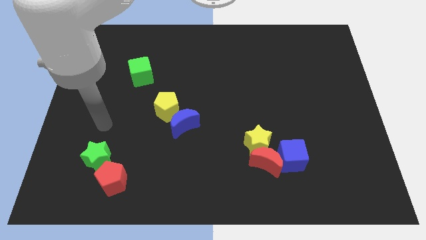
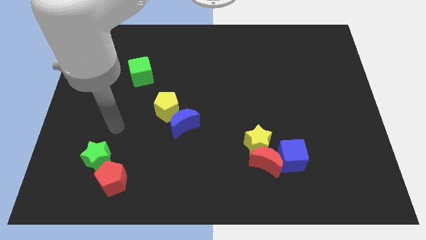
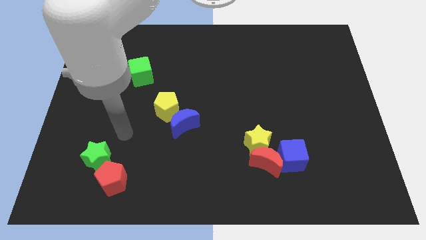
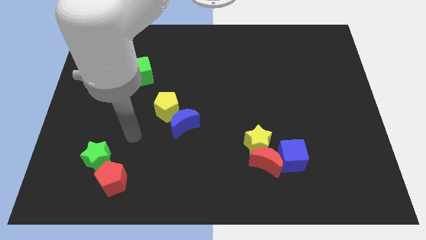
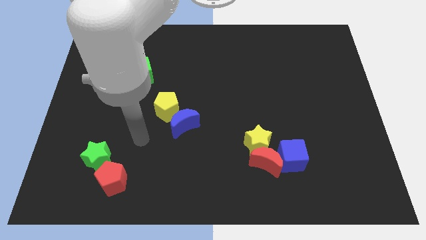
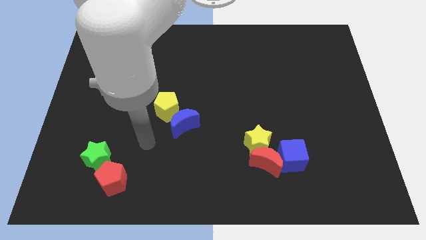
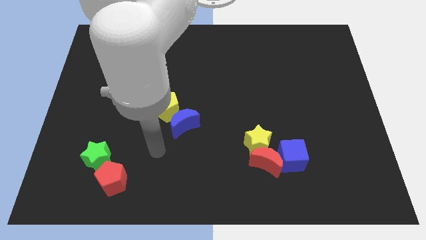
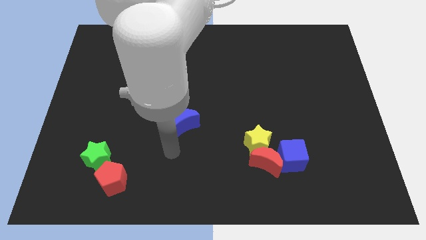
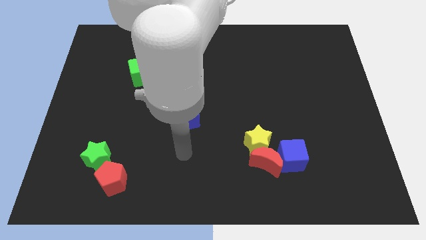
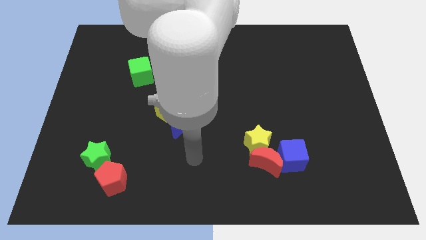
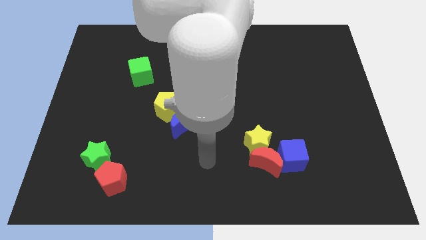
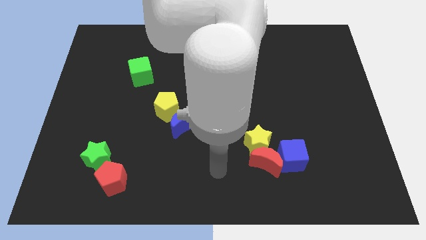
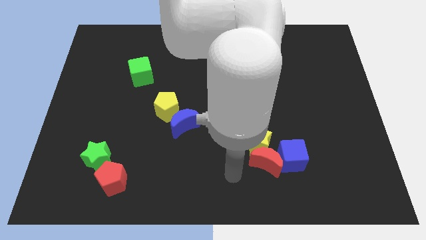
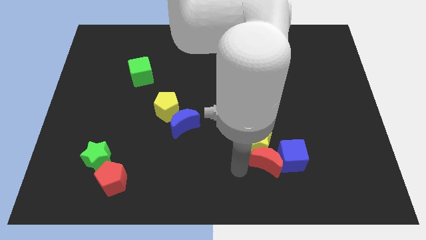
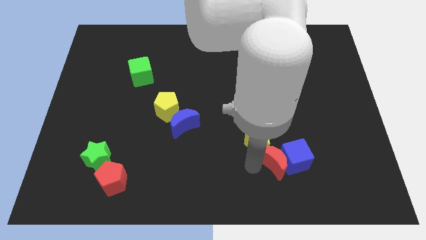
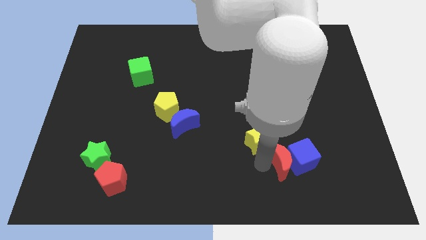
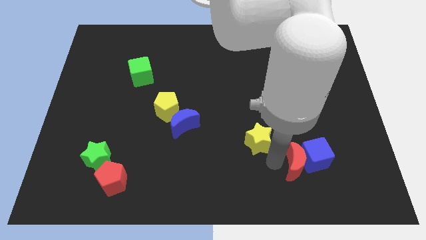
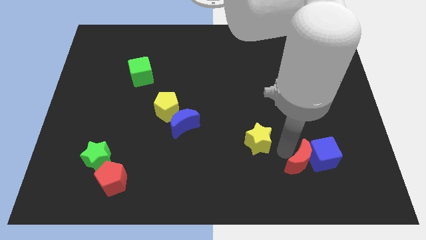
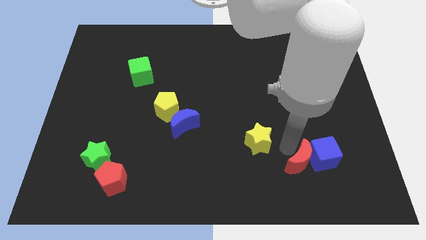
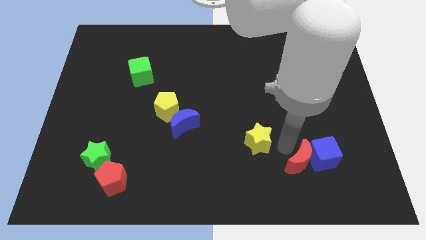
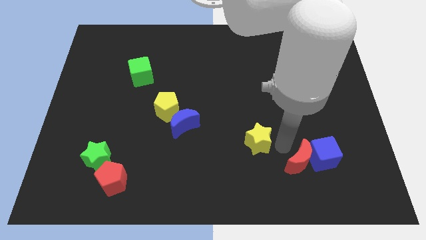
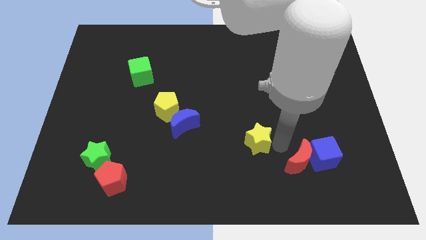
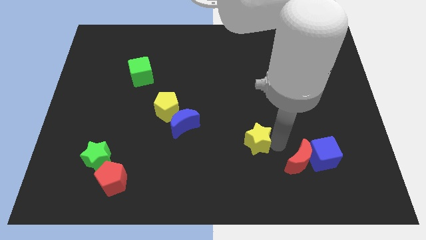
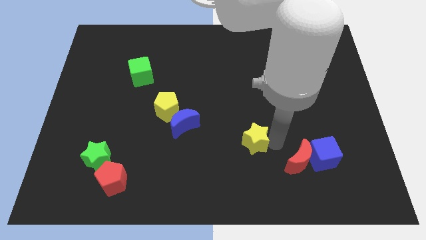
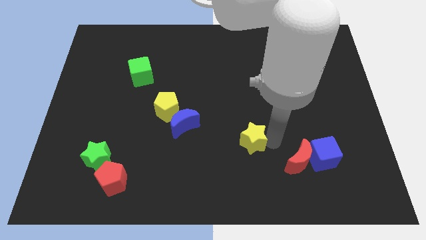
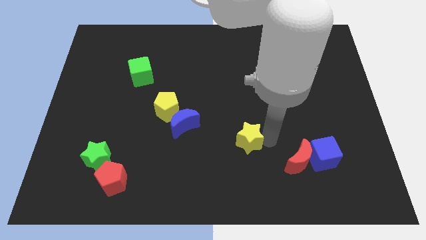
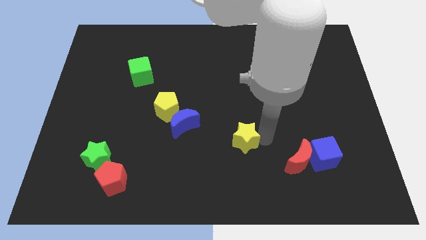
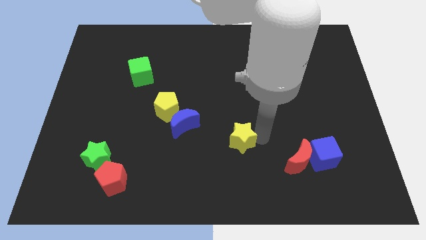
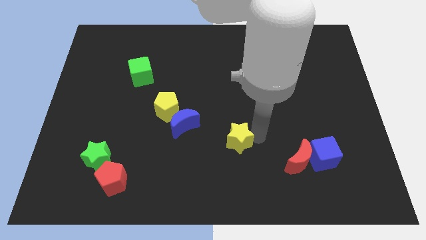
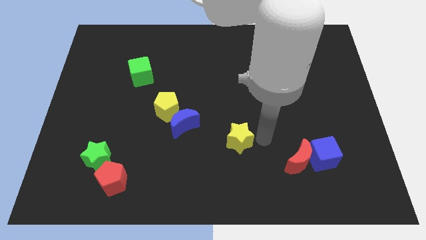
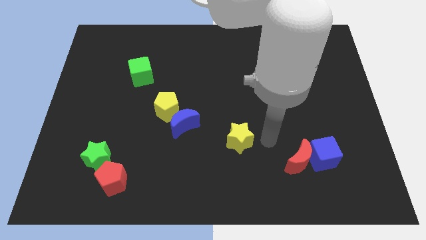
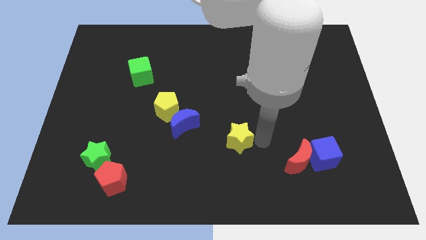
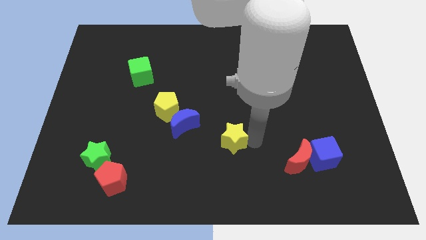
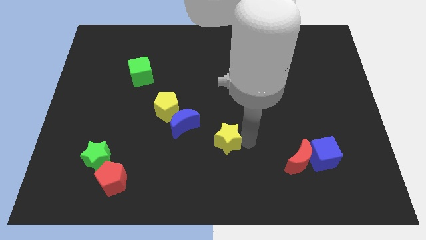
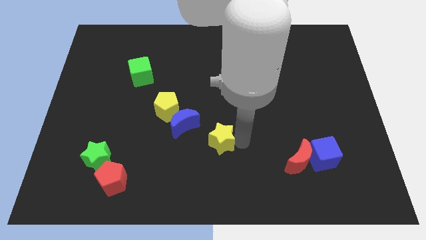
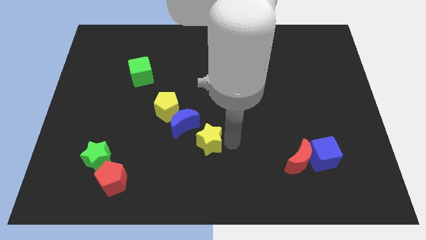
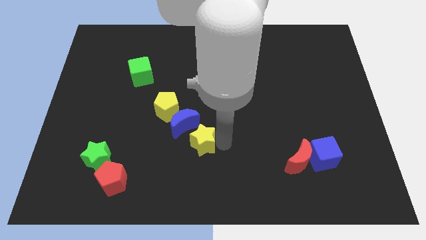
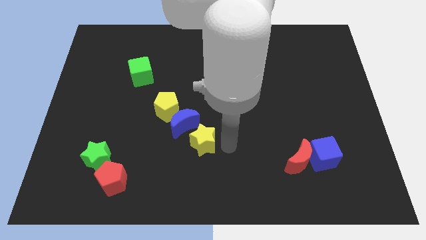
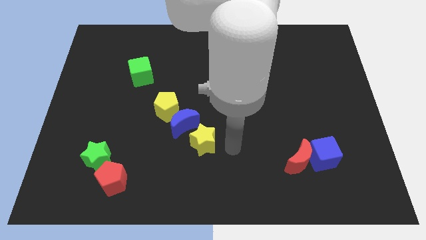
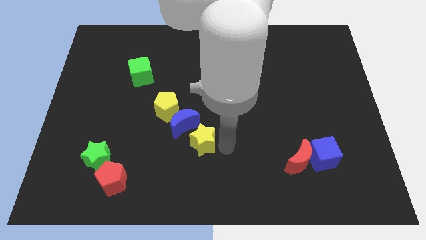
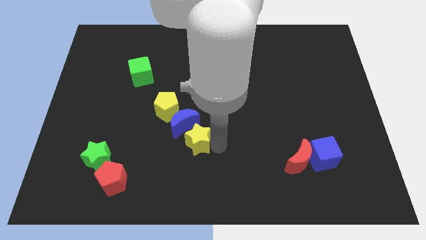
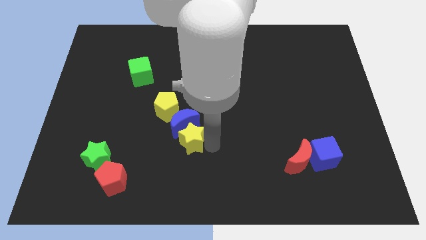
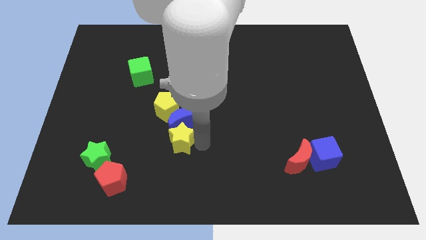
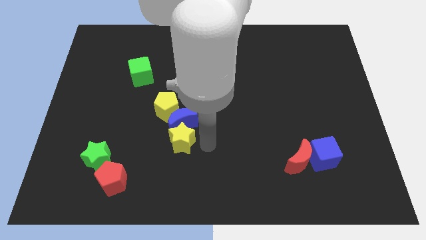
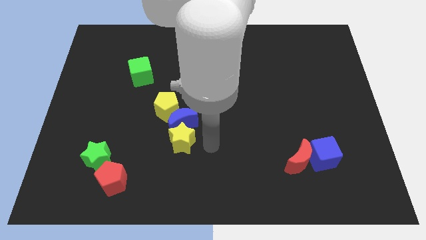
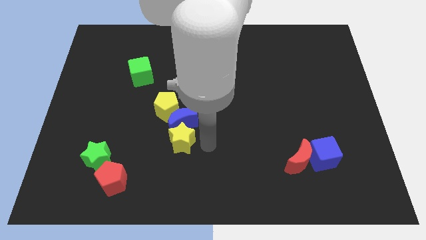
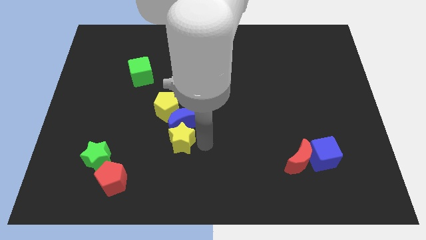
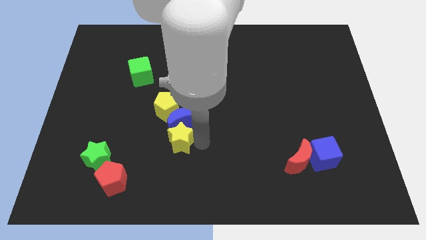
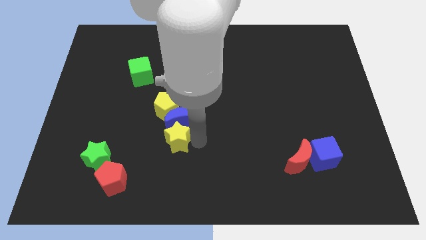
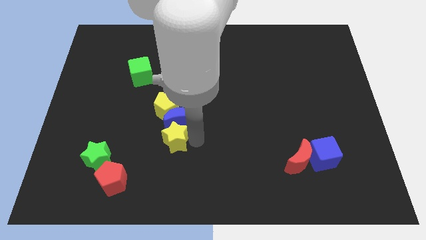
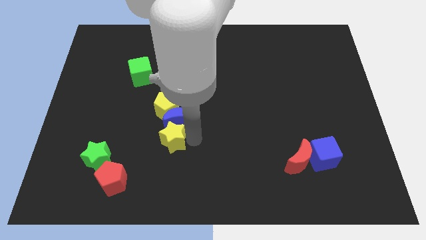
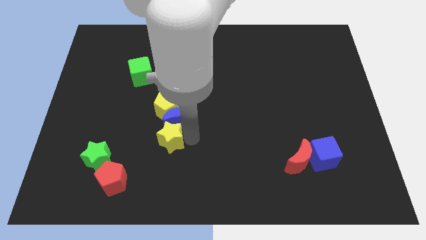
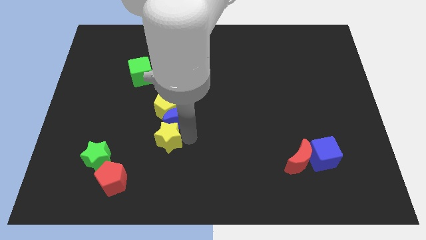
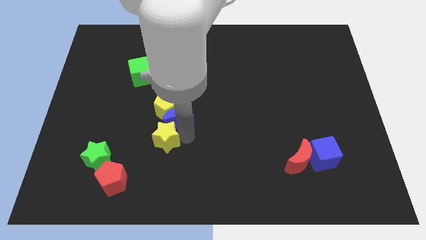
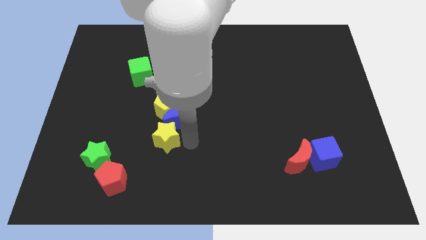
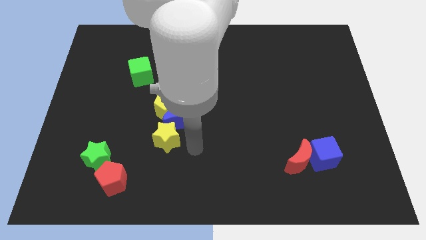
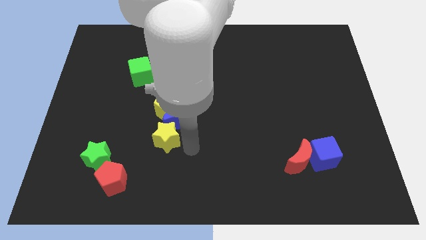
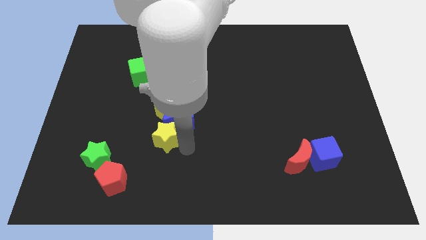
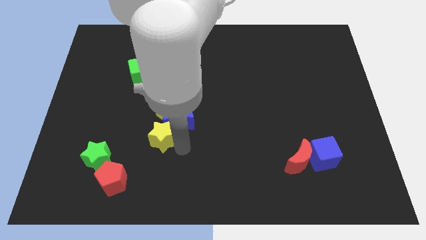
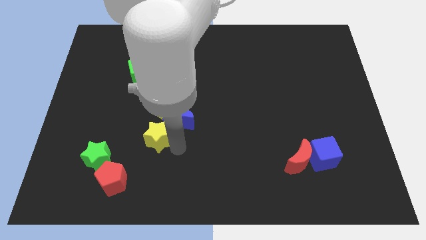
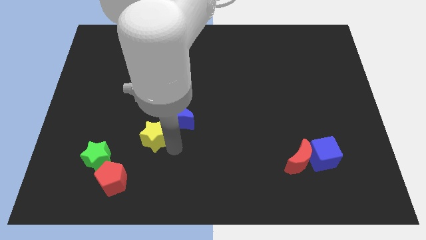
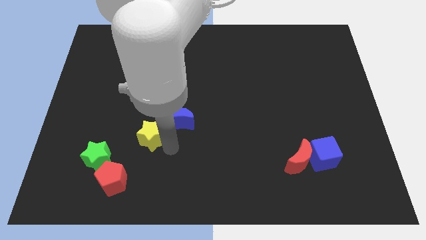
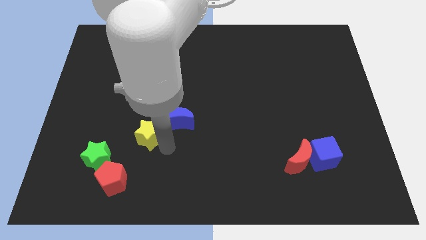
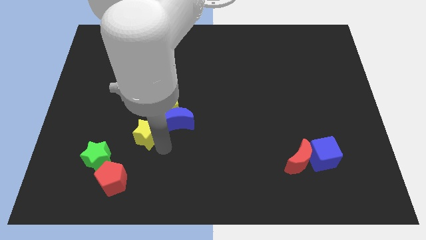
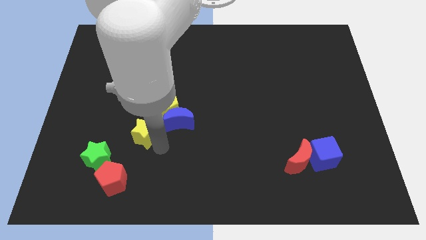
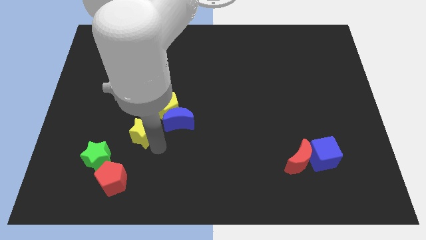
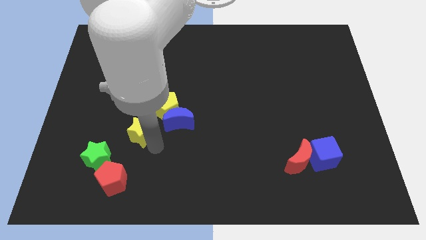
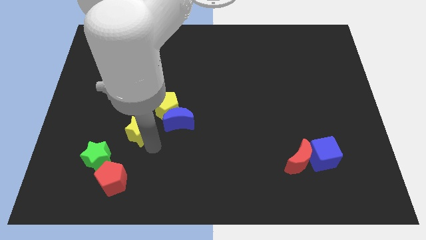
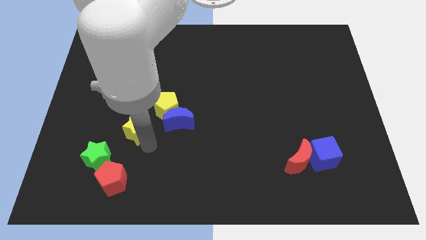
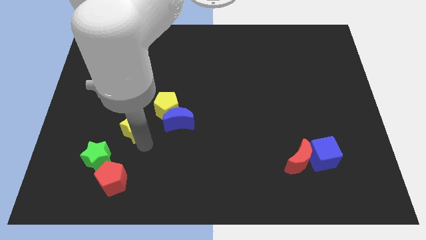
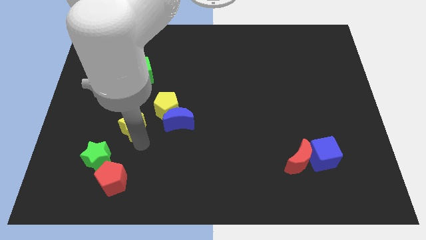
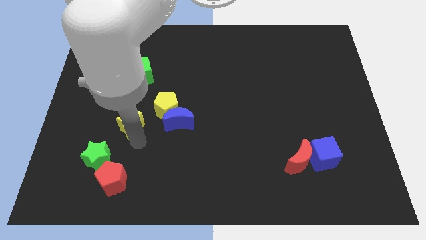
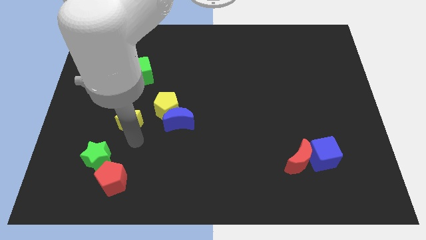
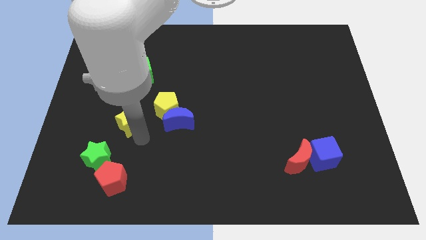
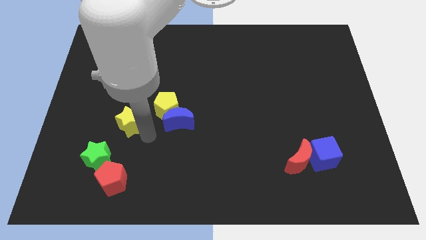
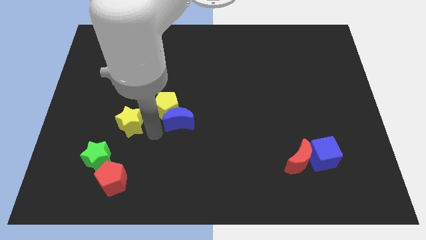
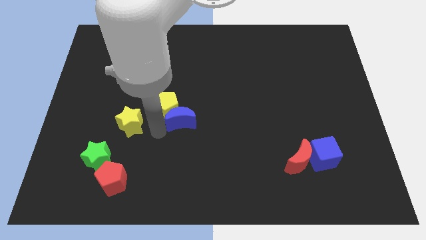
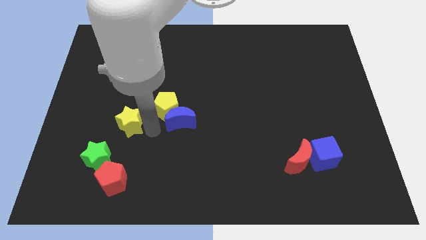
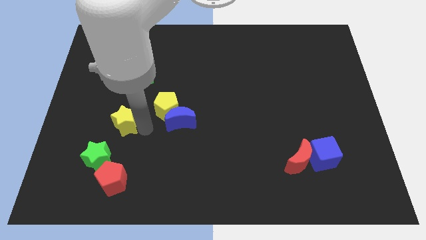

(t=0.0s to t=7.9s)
move the yellow star above the green star
